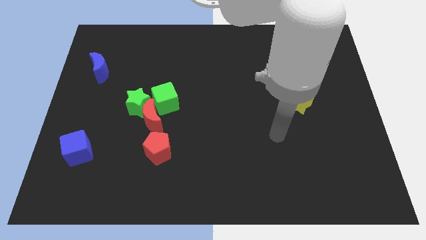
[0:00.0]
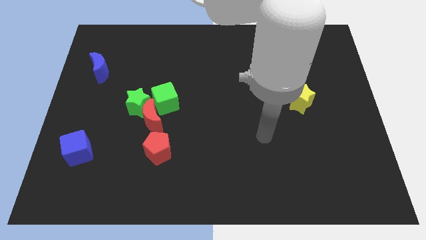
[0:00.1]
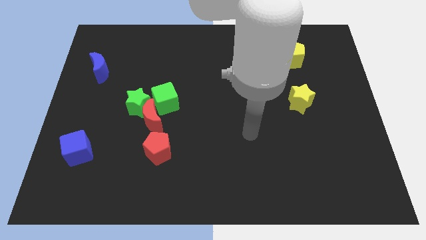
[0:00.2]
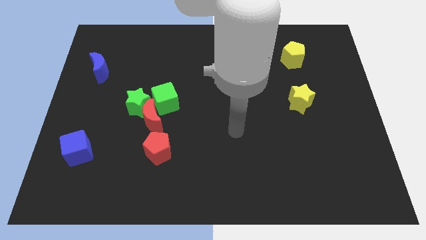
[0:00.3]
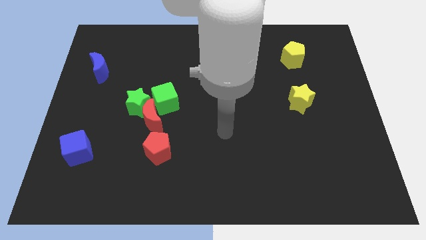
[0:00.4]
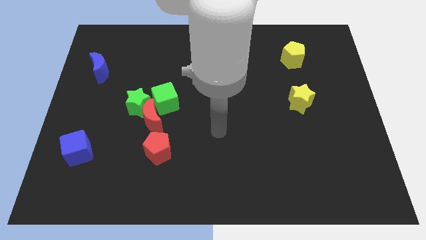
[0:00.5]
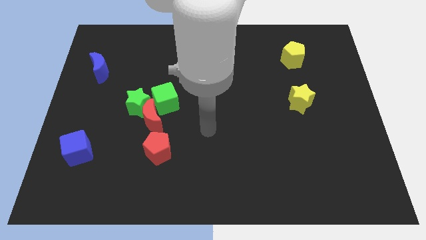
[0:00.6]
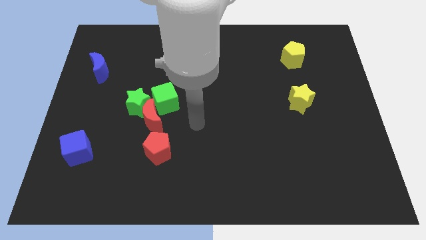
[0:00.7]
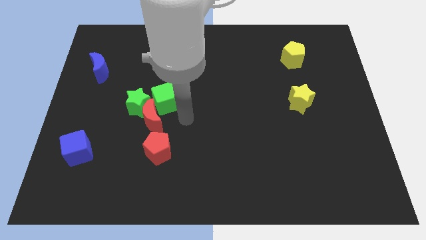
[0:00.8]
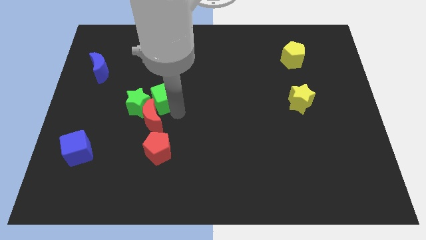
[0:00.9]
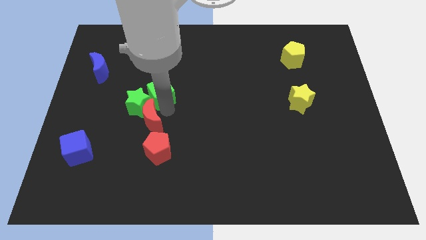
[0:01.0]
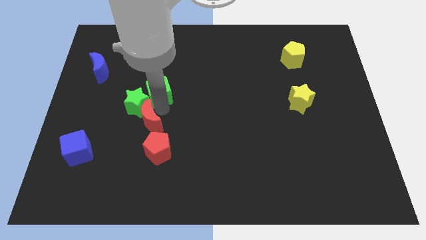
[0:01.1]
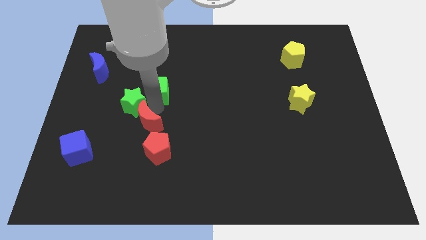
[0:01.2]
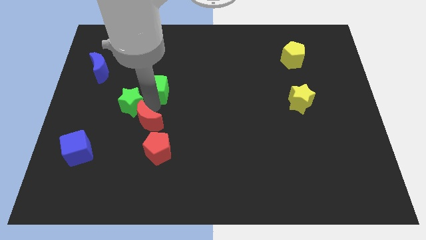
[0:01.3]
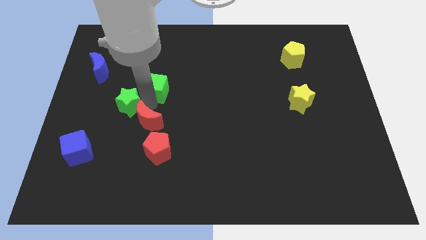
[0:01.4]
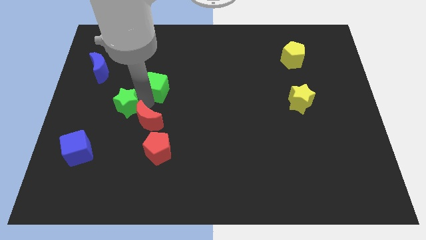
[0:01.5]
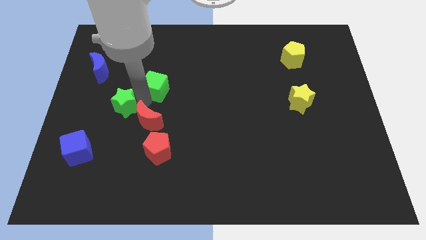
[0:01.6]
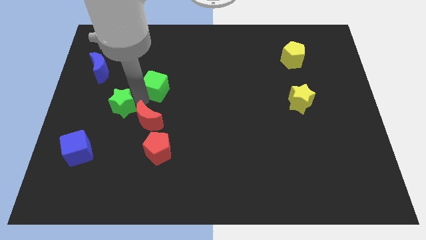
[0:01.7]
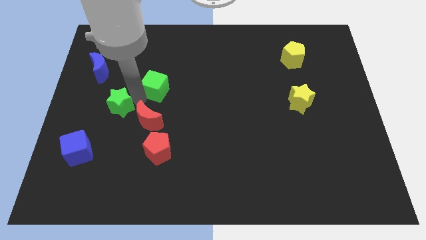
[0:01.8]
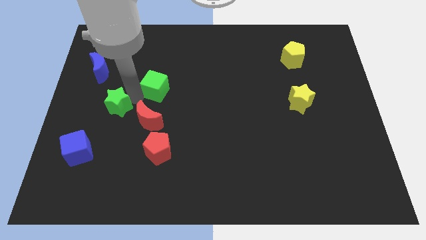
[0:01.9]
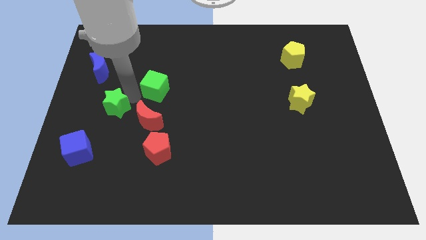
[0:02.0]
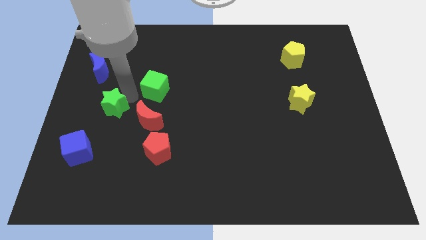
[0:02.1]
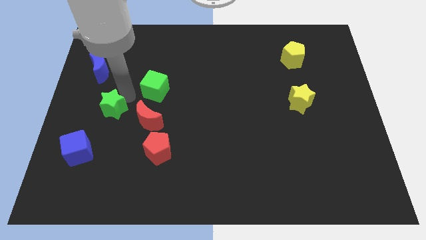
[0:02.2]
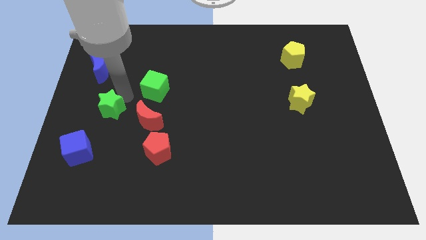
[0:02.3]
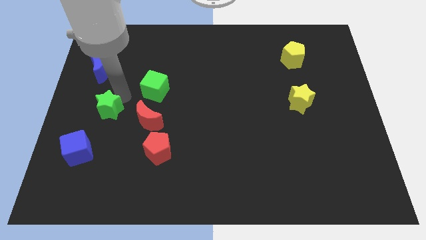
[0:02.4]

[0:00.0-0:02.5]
pull the green star apart from the red moon and green cube

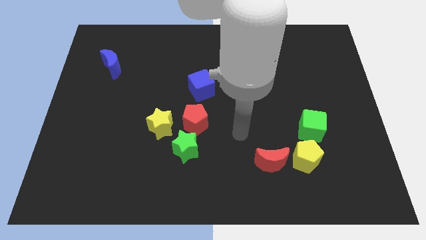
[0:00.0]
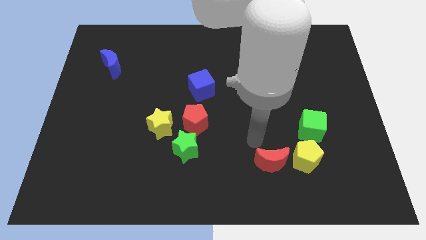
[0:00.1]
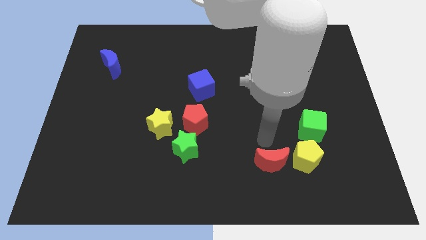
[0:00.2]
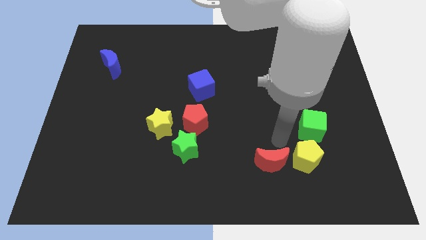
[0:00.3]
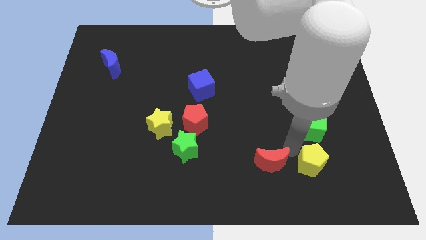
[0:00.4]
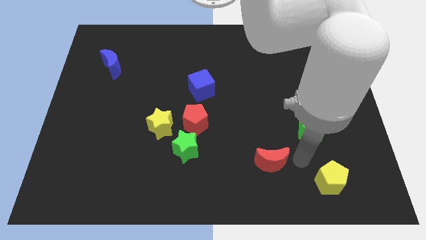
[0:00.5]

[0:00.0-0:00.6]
separate the red moon from the yellow pentagon

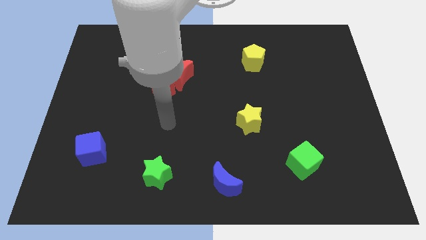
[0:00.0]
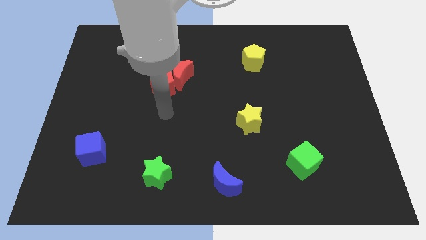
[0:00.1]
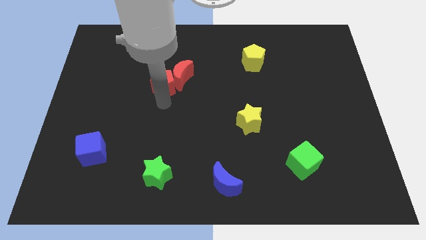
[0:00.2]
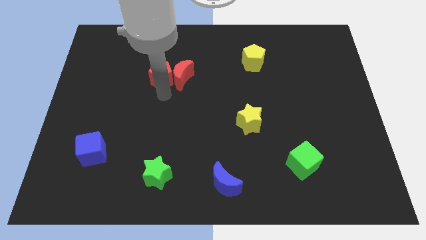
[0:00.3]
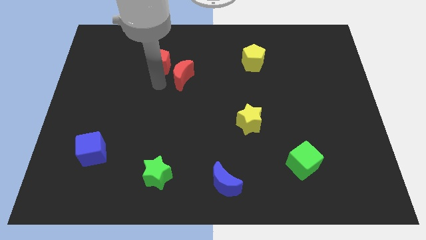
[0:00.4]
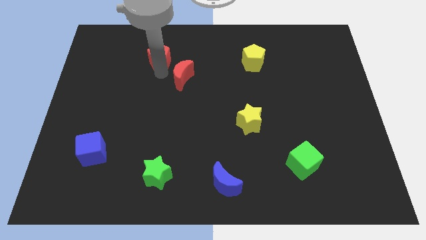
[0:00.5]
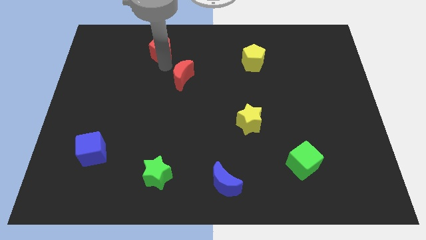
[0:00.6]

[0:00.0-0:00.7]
pull the red moon apart from the red pentagon

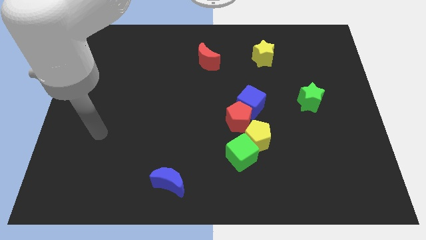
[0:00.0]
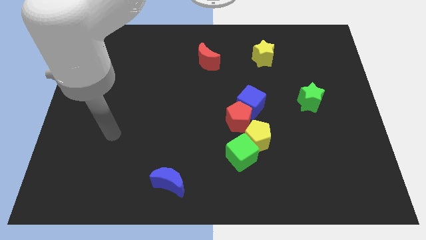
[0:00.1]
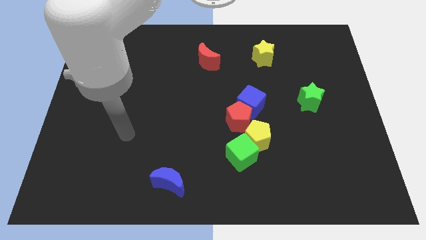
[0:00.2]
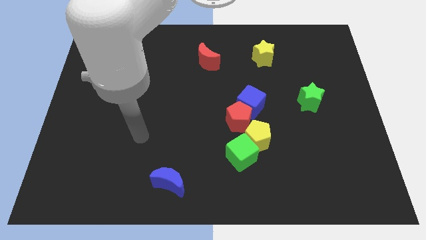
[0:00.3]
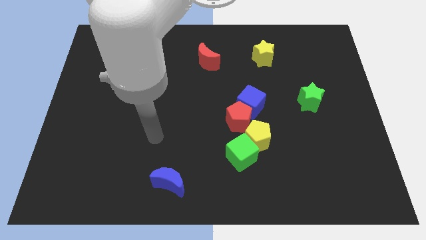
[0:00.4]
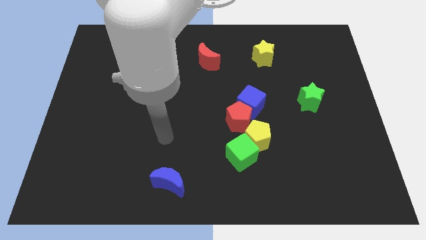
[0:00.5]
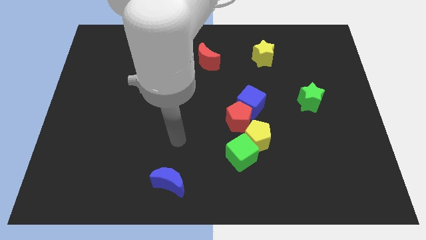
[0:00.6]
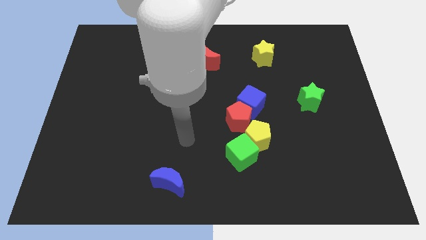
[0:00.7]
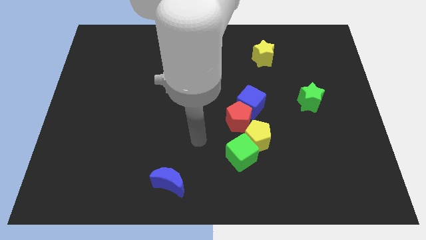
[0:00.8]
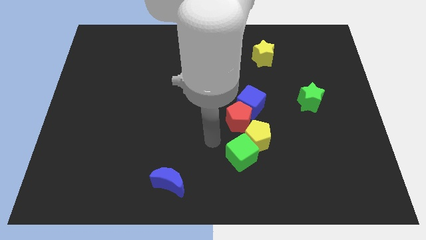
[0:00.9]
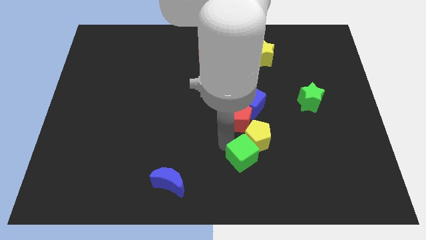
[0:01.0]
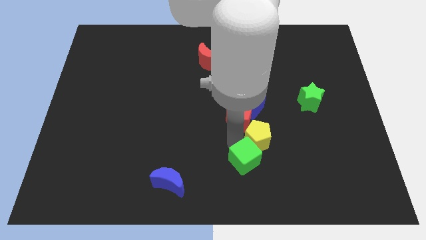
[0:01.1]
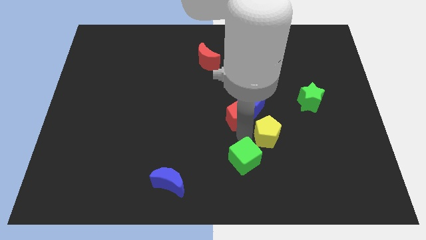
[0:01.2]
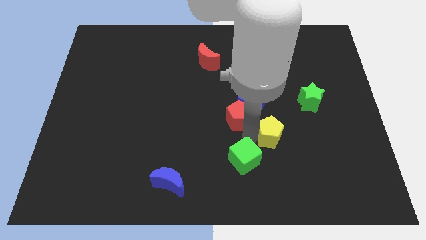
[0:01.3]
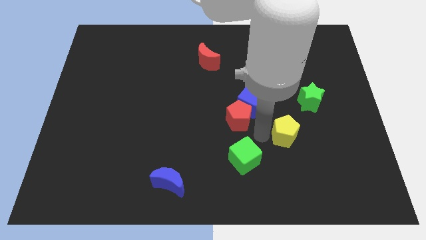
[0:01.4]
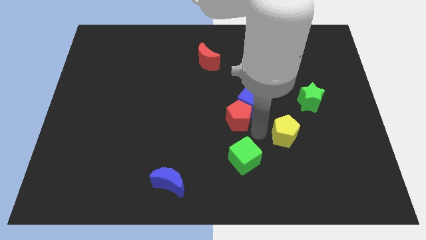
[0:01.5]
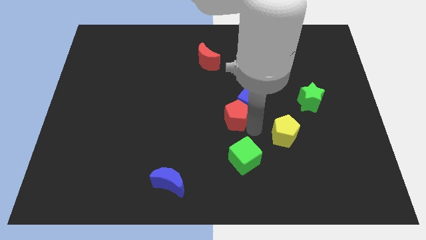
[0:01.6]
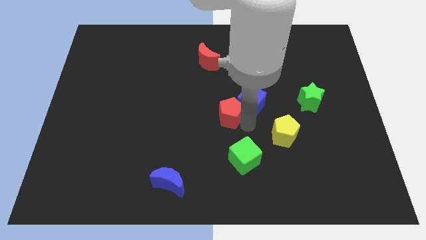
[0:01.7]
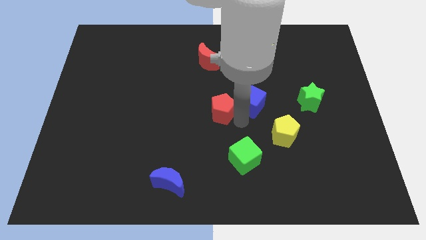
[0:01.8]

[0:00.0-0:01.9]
separate the red pentagon from the blue cube, yellow pentagon, and green cube

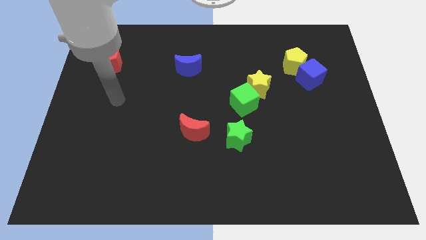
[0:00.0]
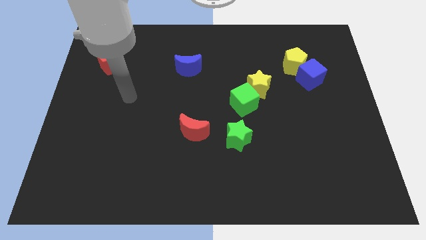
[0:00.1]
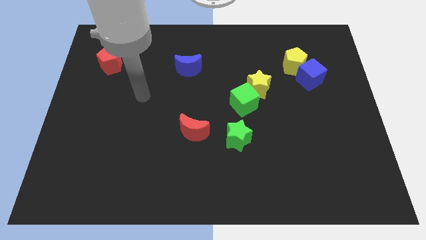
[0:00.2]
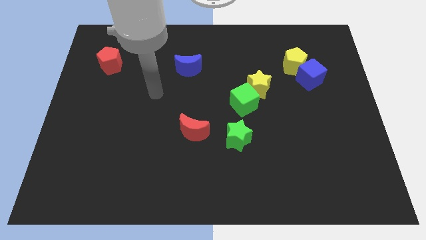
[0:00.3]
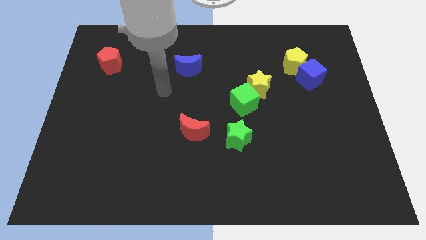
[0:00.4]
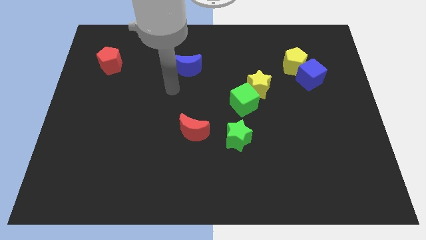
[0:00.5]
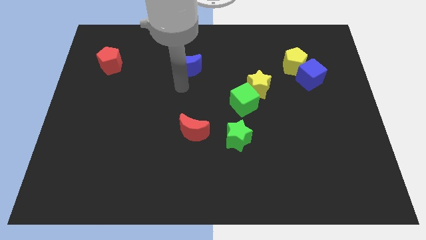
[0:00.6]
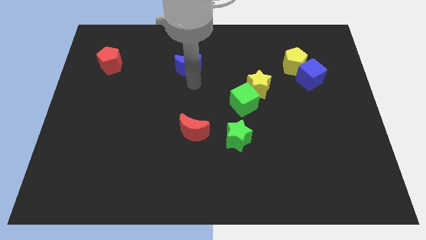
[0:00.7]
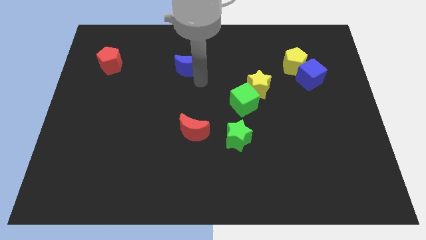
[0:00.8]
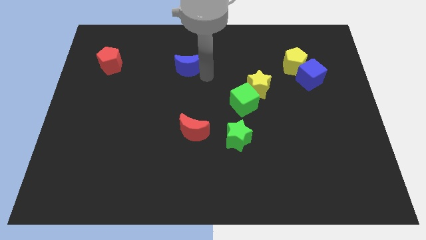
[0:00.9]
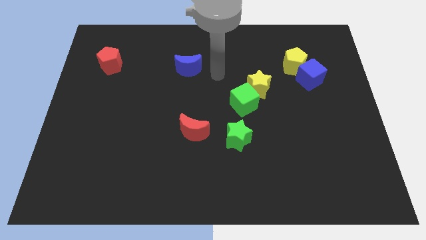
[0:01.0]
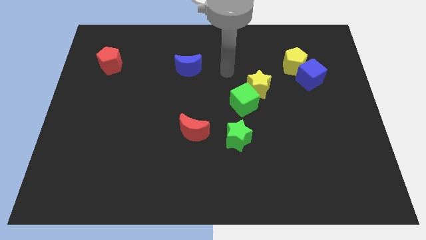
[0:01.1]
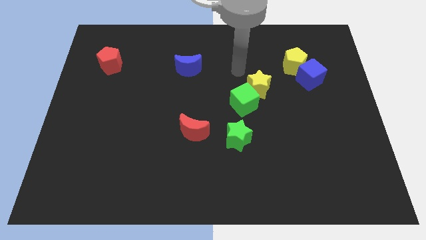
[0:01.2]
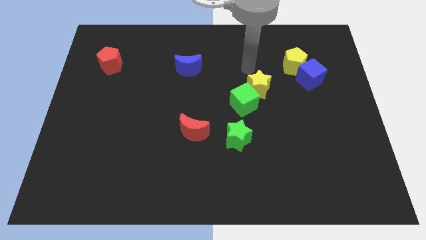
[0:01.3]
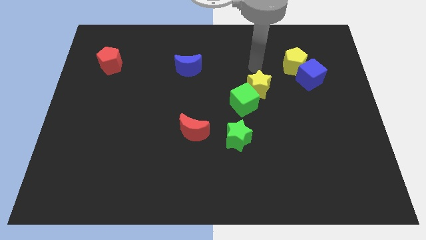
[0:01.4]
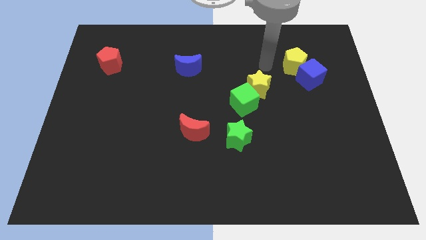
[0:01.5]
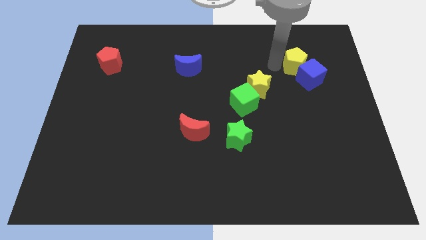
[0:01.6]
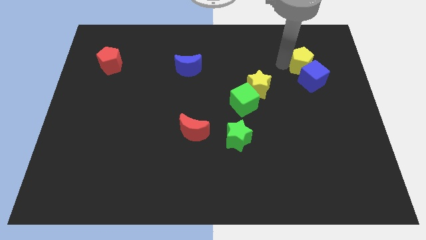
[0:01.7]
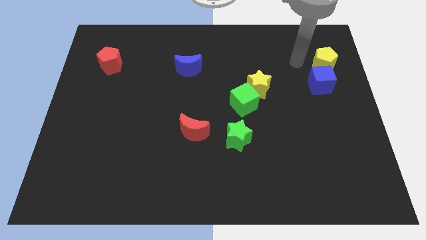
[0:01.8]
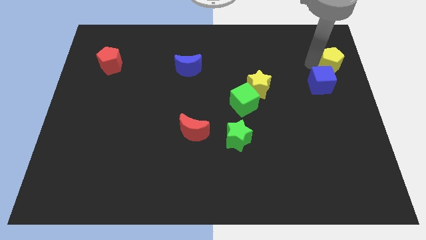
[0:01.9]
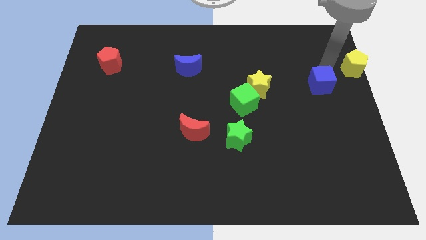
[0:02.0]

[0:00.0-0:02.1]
move the blue cube away from the yellow pentagon

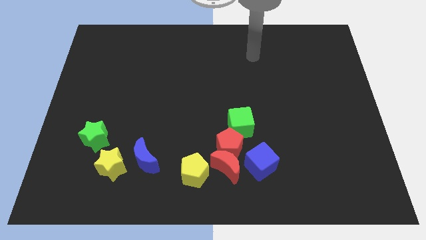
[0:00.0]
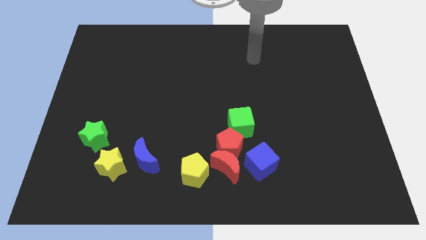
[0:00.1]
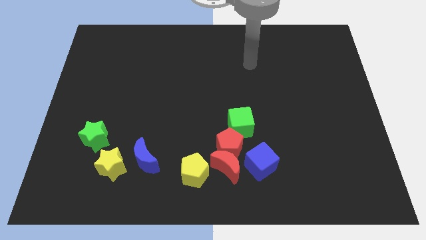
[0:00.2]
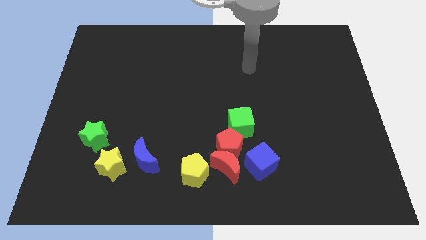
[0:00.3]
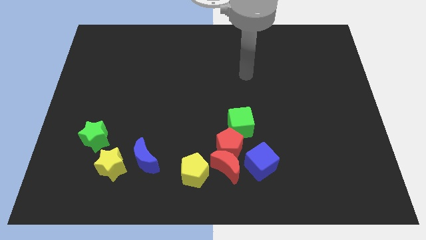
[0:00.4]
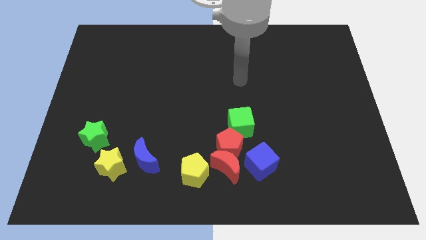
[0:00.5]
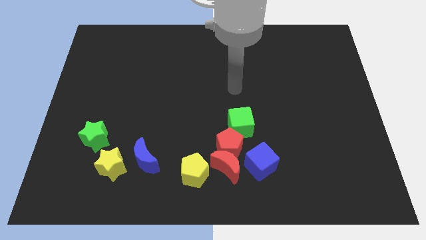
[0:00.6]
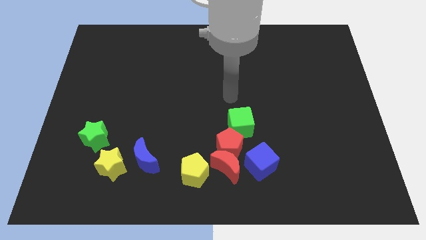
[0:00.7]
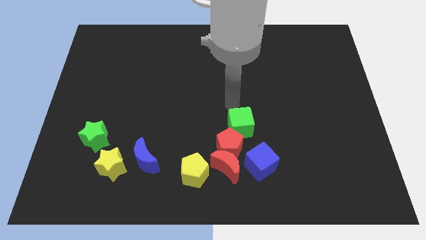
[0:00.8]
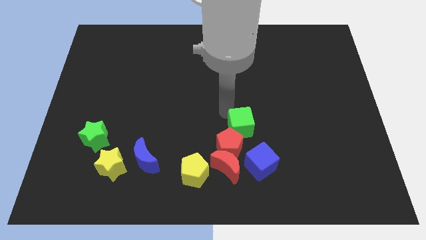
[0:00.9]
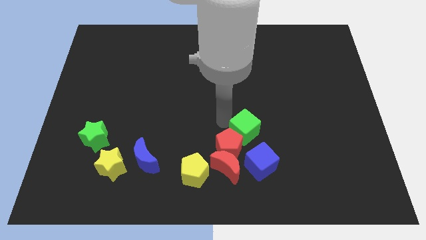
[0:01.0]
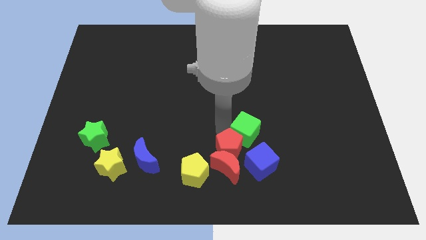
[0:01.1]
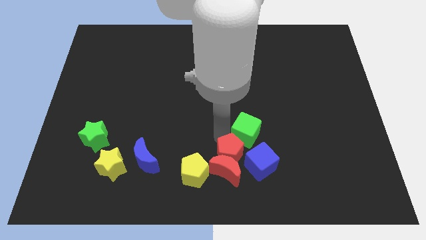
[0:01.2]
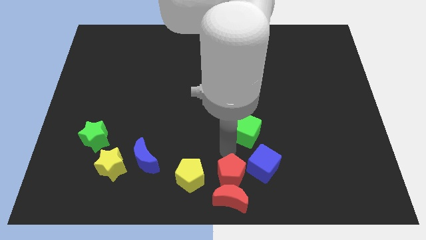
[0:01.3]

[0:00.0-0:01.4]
separate the green cube from the red pentagon
